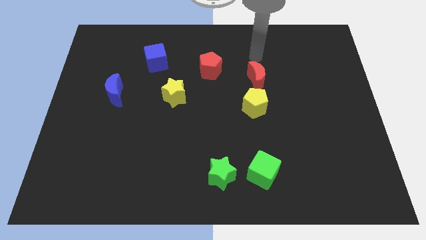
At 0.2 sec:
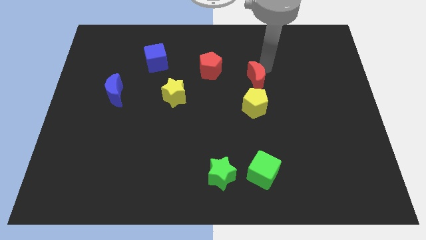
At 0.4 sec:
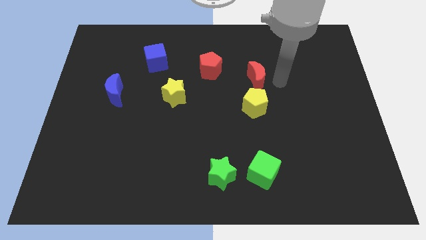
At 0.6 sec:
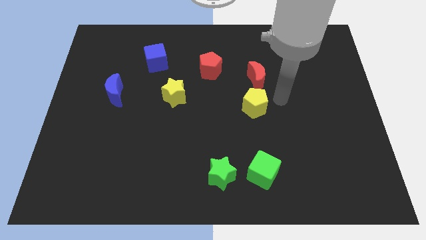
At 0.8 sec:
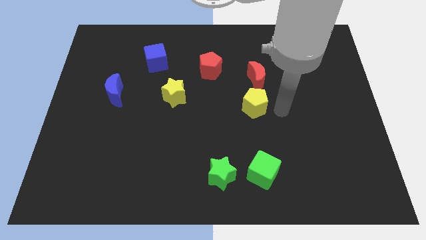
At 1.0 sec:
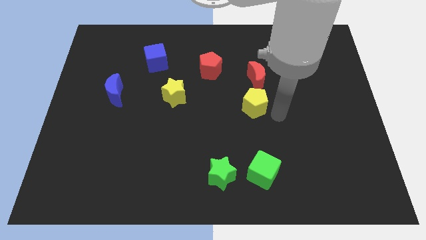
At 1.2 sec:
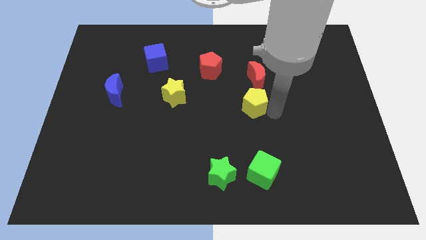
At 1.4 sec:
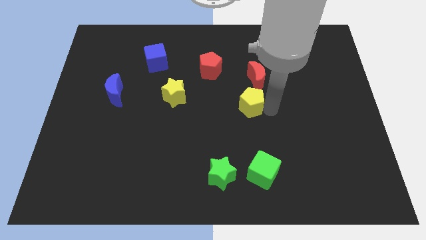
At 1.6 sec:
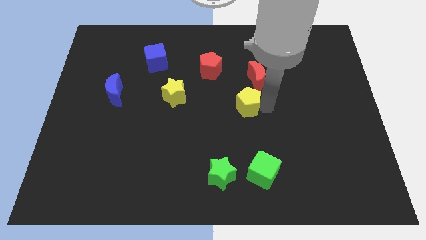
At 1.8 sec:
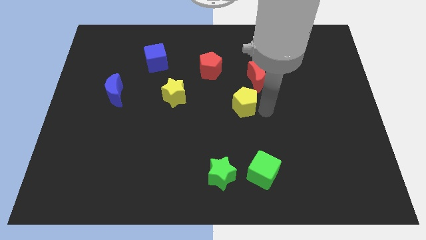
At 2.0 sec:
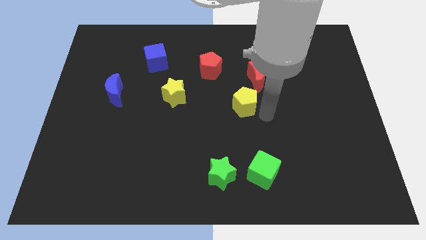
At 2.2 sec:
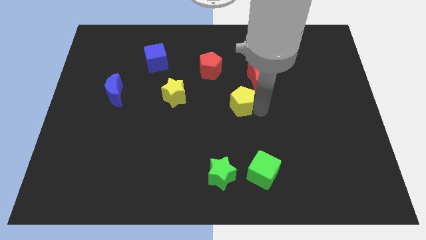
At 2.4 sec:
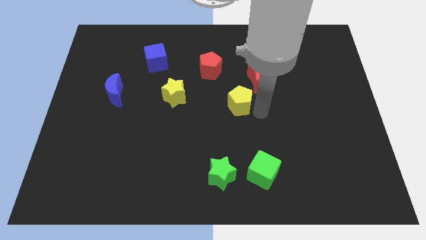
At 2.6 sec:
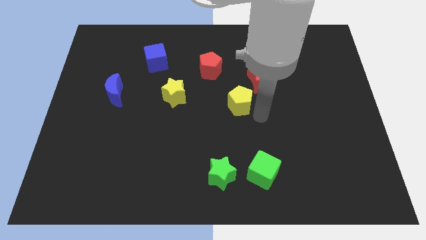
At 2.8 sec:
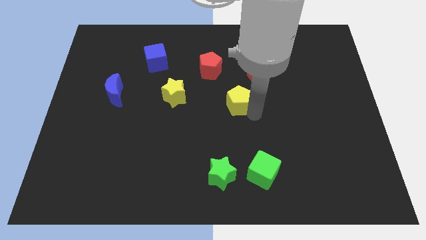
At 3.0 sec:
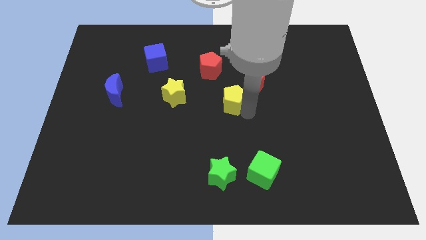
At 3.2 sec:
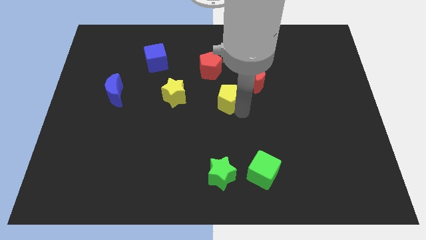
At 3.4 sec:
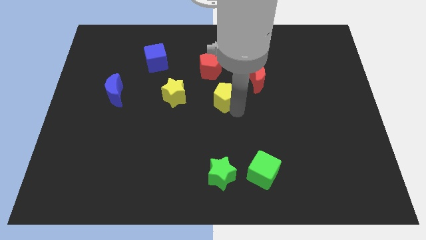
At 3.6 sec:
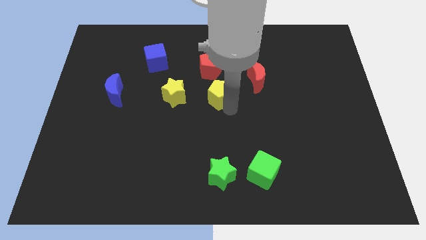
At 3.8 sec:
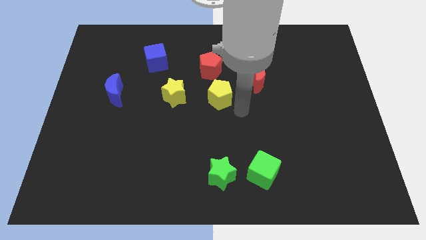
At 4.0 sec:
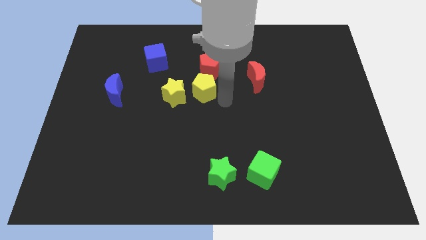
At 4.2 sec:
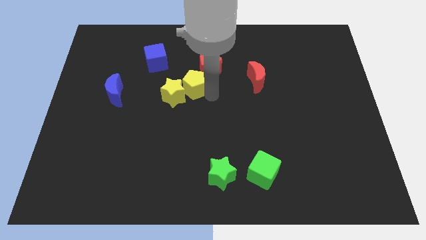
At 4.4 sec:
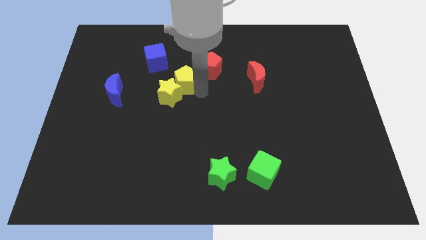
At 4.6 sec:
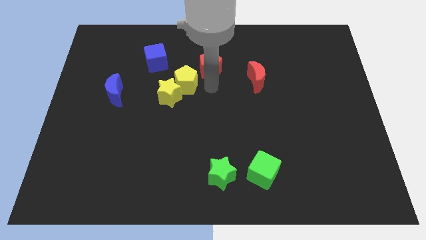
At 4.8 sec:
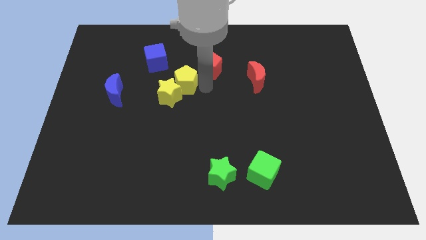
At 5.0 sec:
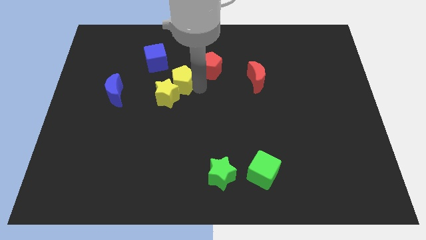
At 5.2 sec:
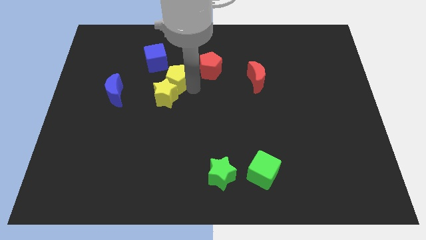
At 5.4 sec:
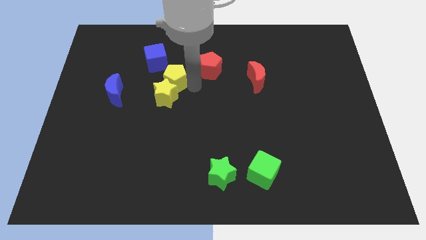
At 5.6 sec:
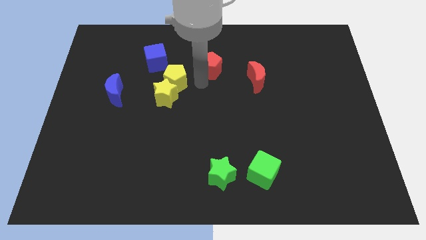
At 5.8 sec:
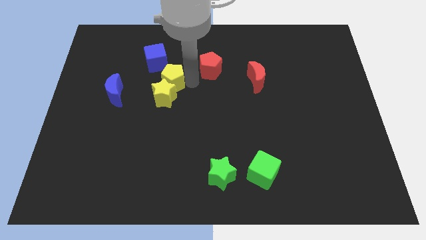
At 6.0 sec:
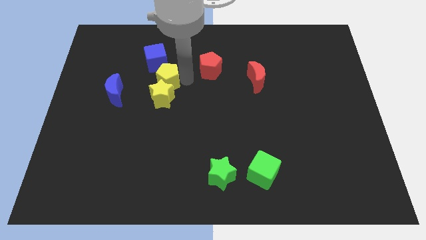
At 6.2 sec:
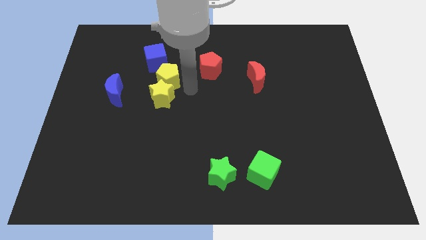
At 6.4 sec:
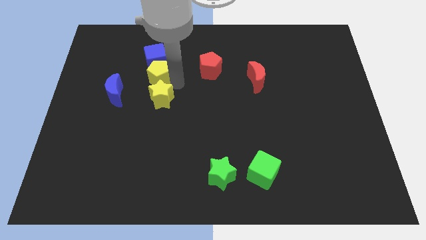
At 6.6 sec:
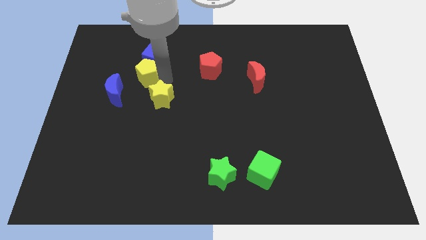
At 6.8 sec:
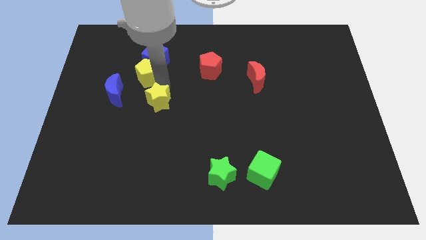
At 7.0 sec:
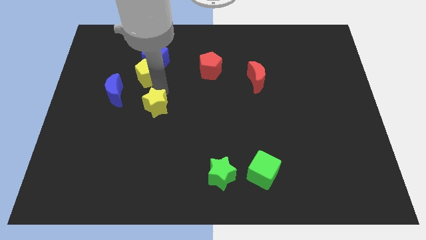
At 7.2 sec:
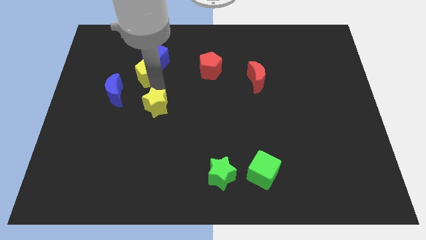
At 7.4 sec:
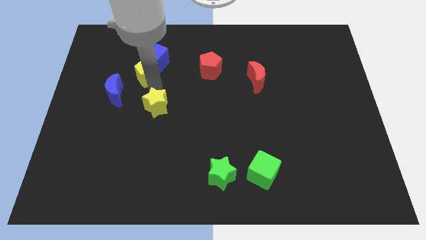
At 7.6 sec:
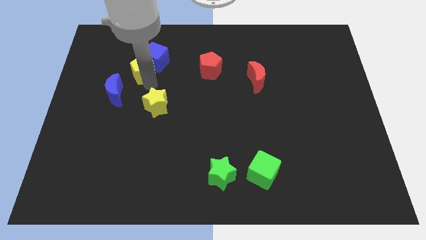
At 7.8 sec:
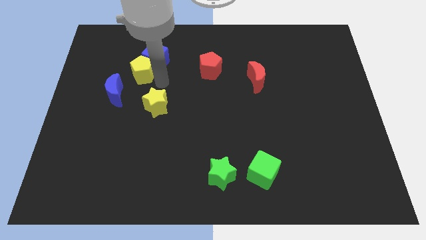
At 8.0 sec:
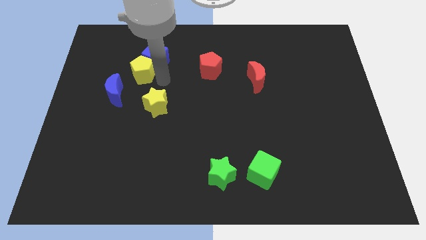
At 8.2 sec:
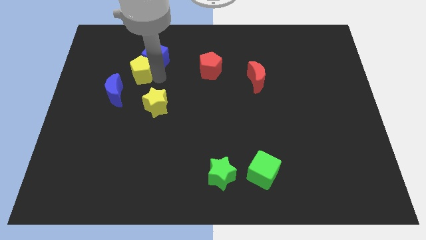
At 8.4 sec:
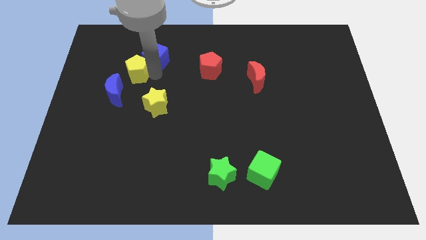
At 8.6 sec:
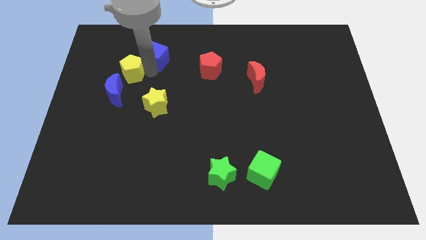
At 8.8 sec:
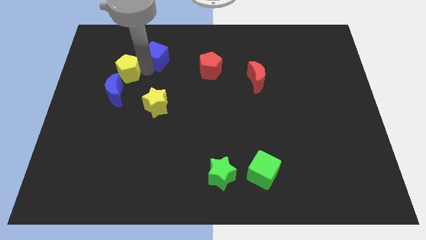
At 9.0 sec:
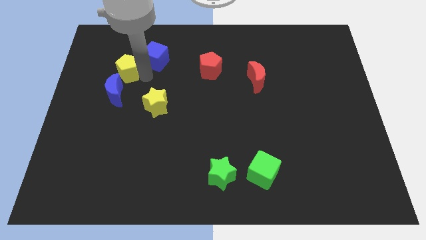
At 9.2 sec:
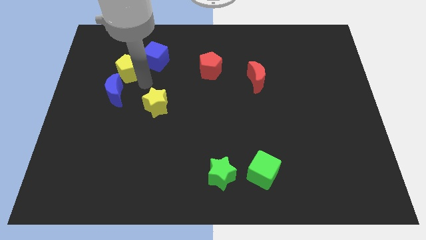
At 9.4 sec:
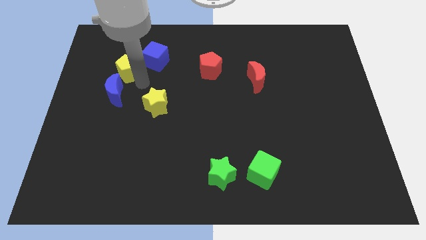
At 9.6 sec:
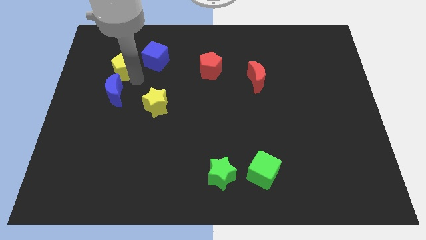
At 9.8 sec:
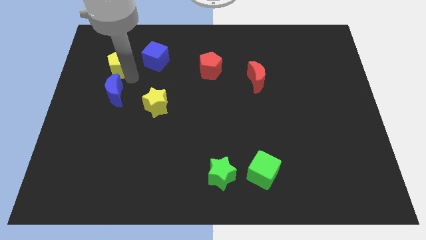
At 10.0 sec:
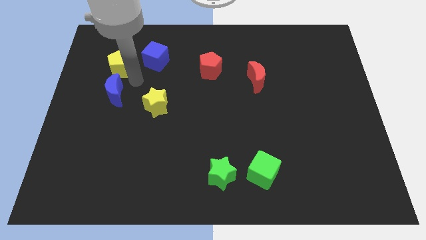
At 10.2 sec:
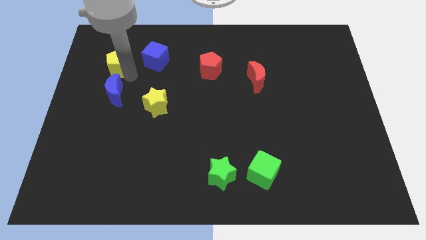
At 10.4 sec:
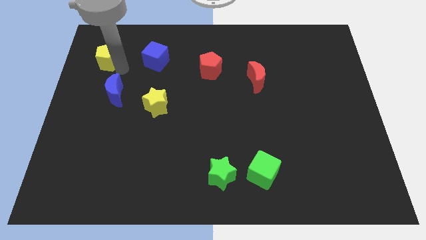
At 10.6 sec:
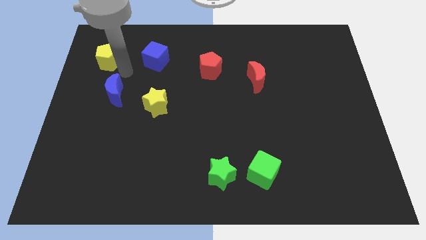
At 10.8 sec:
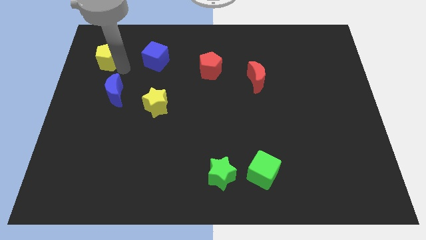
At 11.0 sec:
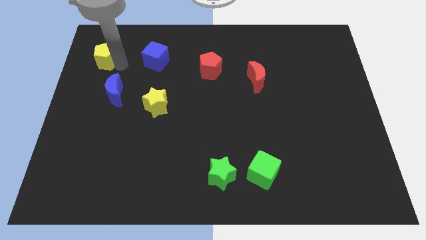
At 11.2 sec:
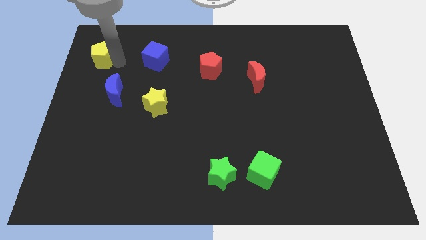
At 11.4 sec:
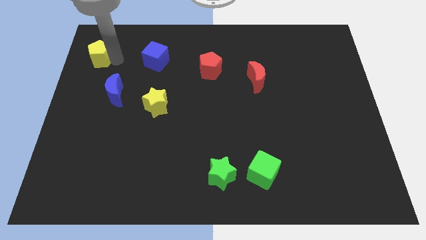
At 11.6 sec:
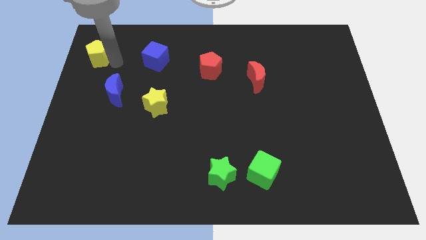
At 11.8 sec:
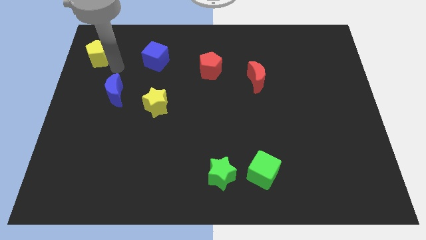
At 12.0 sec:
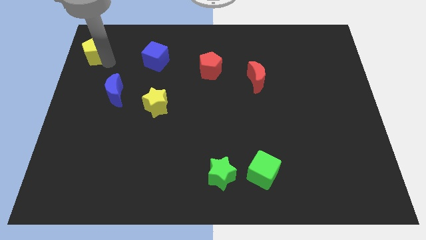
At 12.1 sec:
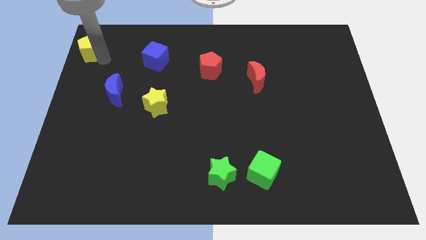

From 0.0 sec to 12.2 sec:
push the yellow pentagon to the top left corner
